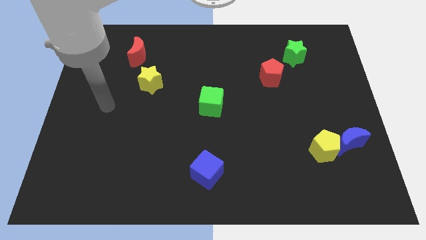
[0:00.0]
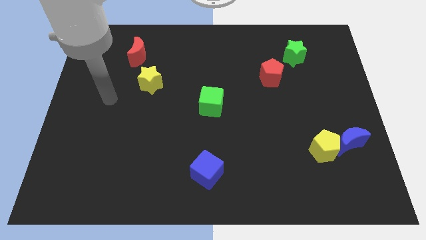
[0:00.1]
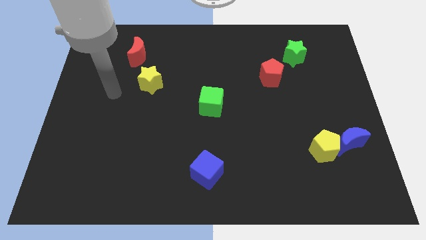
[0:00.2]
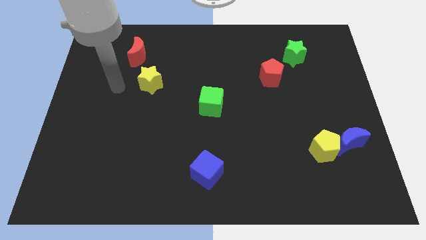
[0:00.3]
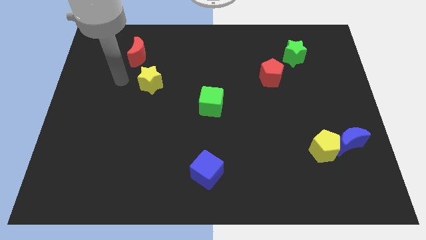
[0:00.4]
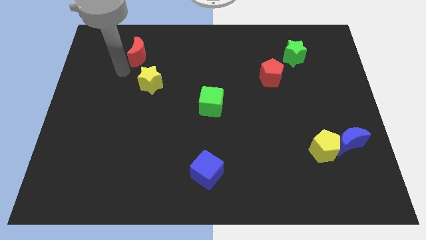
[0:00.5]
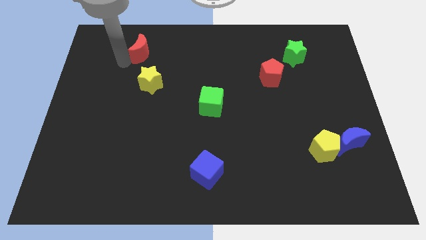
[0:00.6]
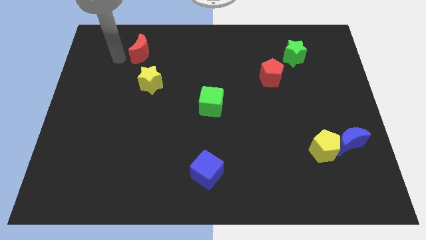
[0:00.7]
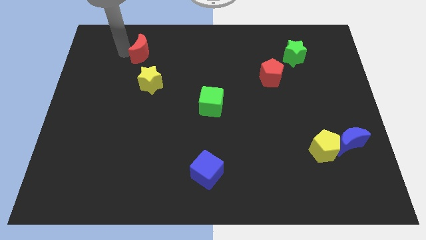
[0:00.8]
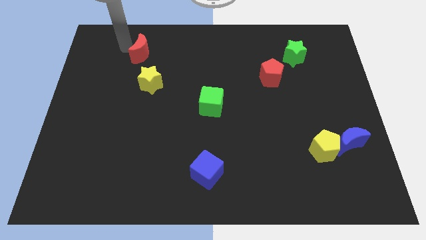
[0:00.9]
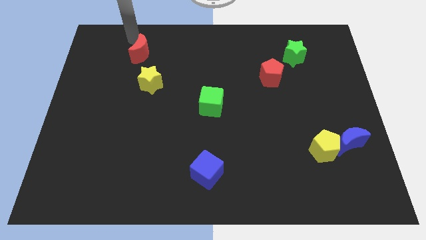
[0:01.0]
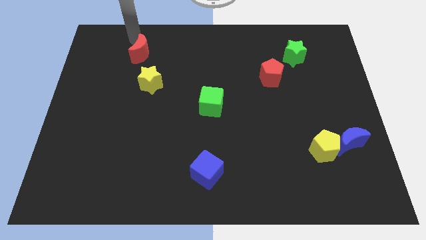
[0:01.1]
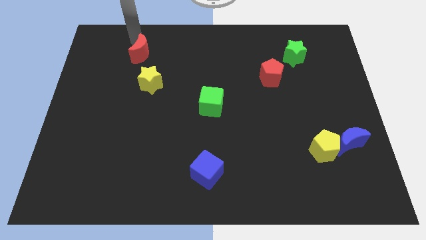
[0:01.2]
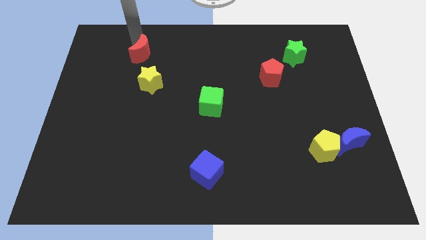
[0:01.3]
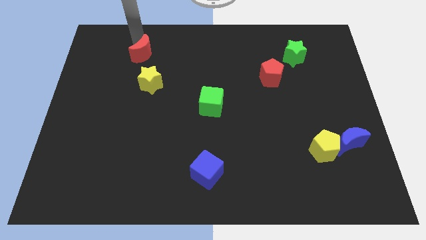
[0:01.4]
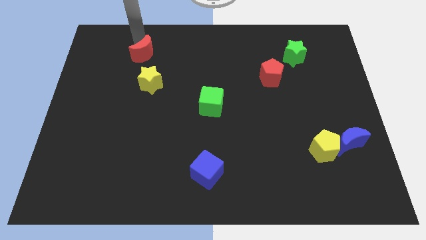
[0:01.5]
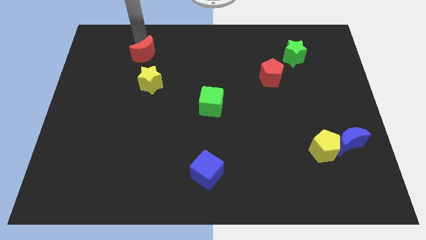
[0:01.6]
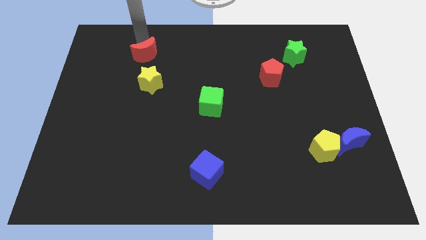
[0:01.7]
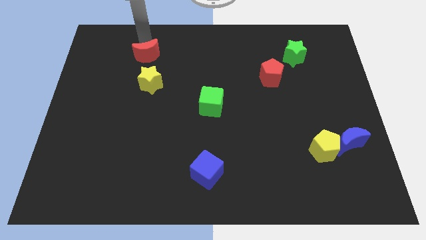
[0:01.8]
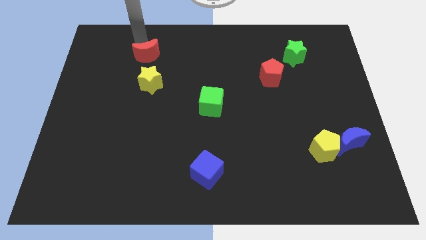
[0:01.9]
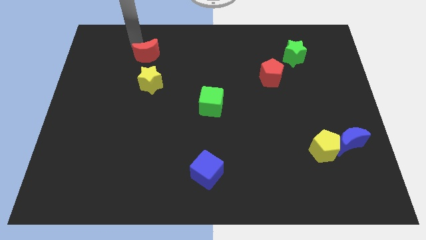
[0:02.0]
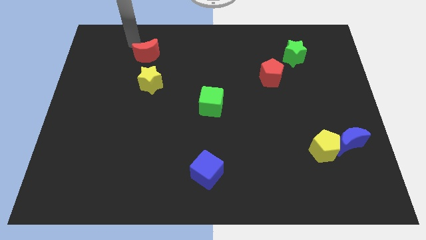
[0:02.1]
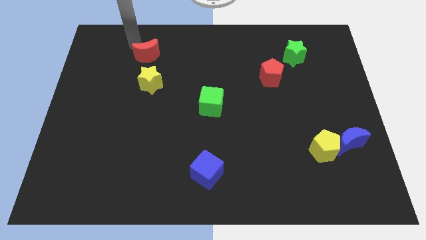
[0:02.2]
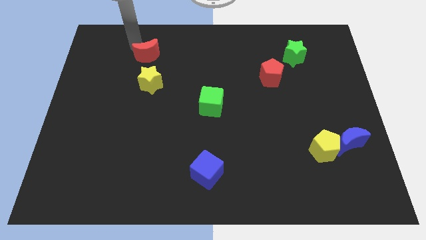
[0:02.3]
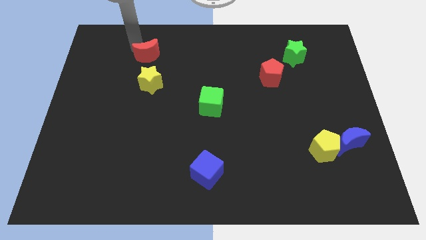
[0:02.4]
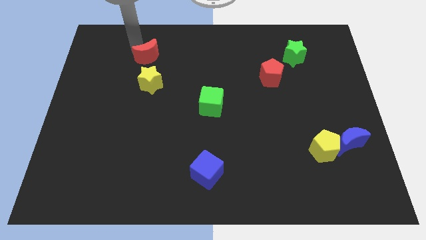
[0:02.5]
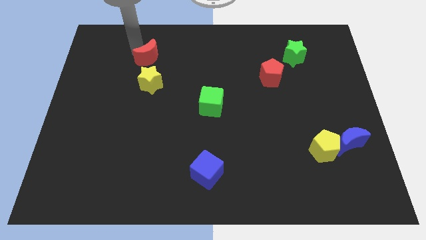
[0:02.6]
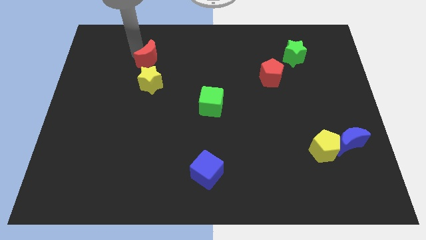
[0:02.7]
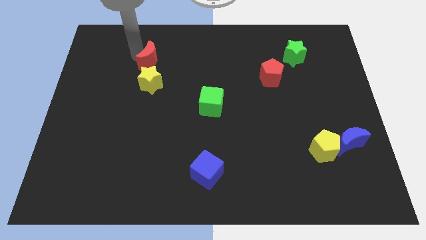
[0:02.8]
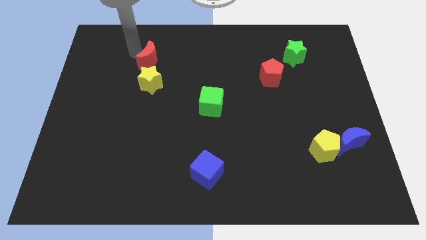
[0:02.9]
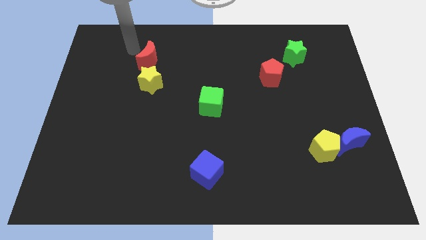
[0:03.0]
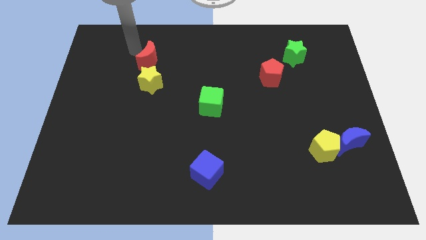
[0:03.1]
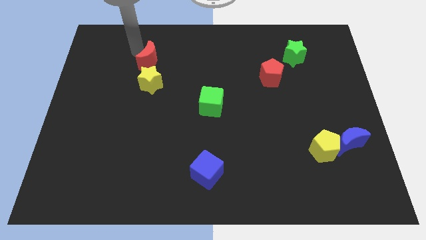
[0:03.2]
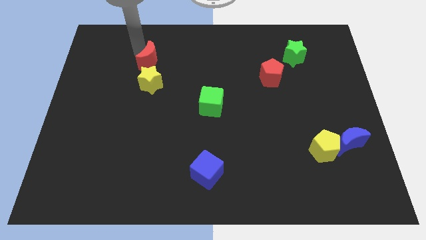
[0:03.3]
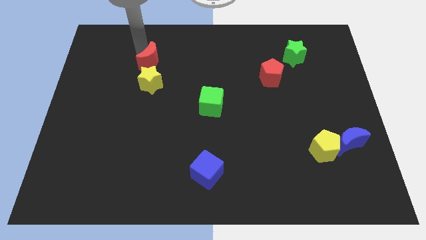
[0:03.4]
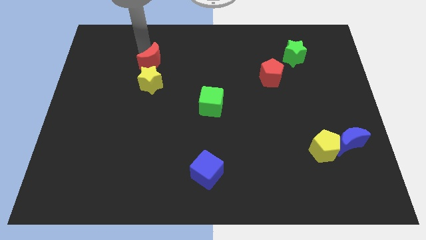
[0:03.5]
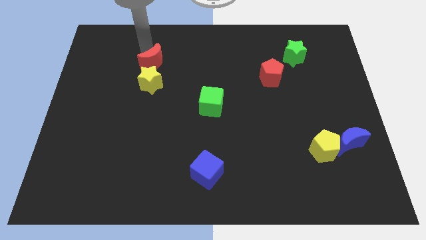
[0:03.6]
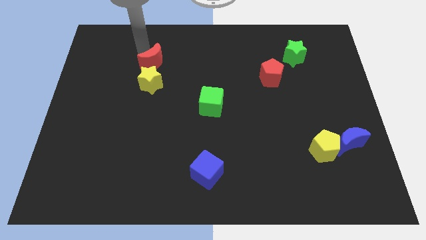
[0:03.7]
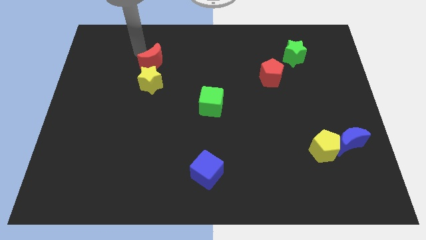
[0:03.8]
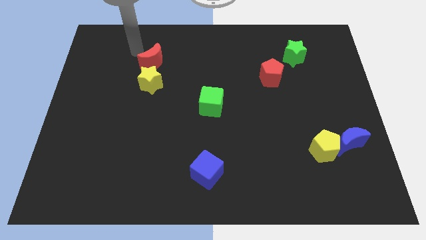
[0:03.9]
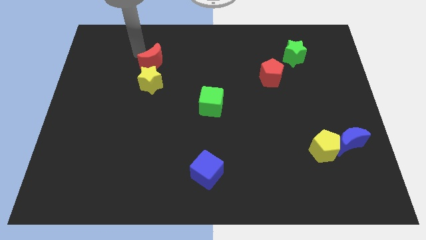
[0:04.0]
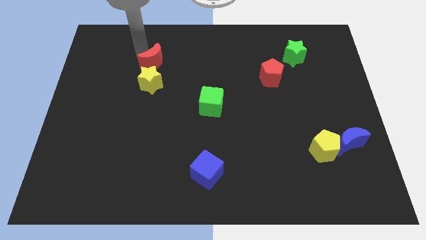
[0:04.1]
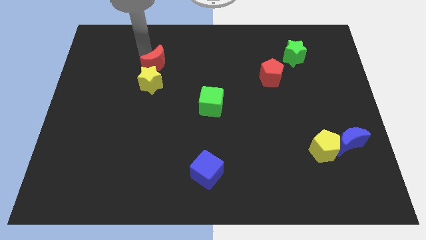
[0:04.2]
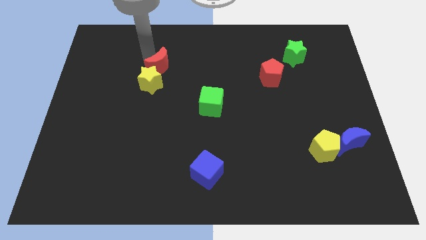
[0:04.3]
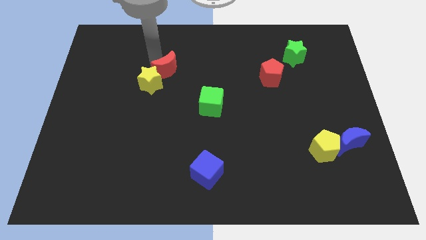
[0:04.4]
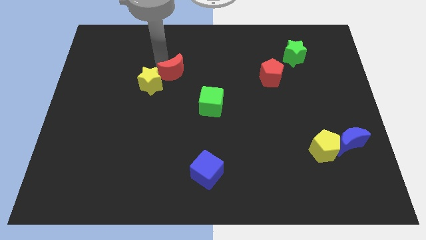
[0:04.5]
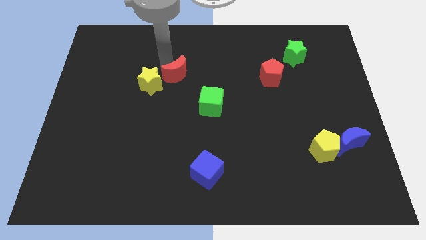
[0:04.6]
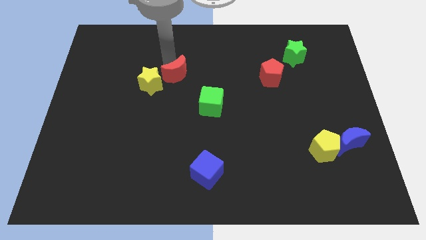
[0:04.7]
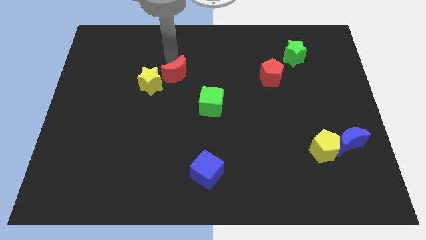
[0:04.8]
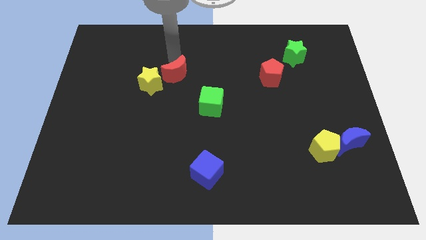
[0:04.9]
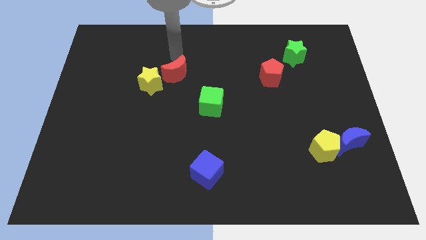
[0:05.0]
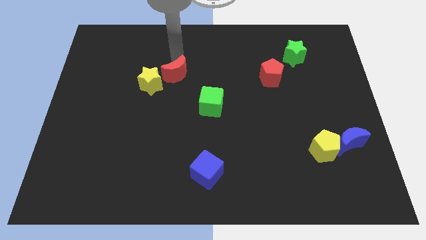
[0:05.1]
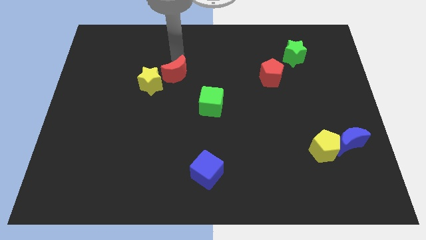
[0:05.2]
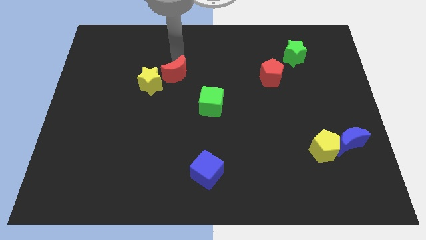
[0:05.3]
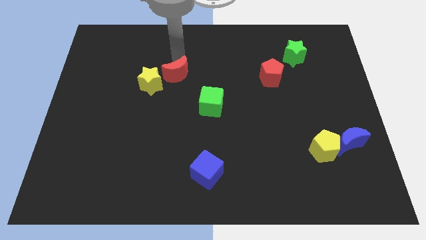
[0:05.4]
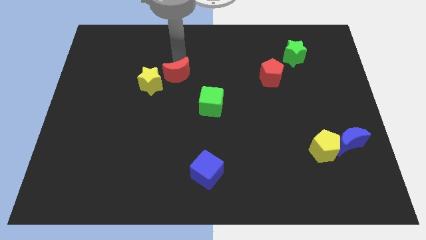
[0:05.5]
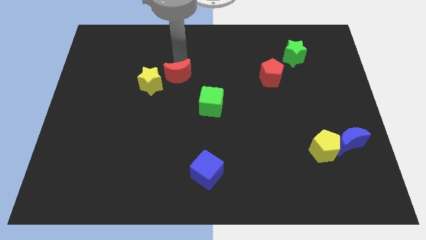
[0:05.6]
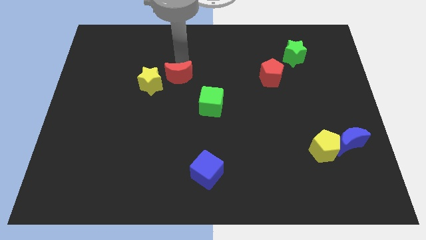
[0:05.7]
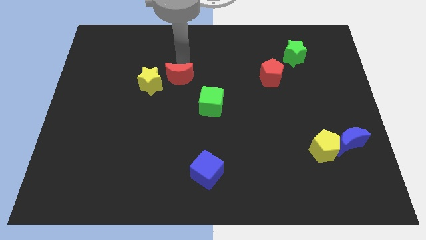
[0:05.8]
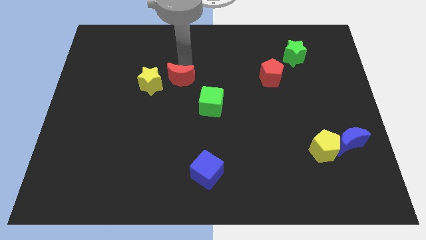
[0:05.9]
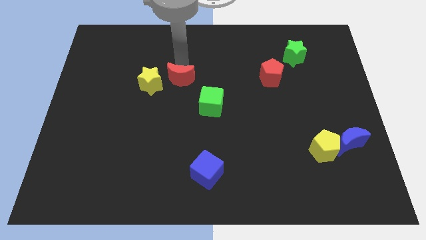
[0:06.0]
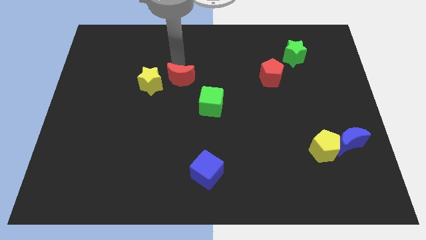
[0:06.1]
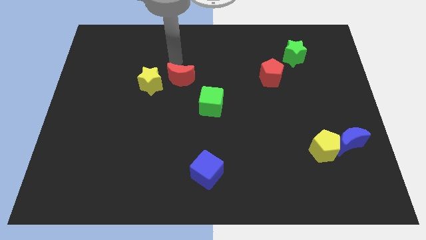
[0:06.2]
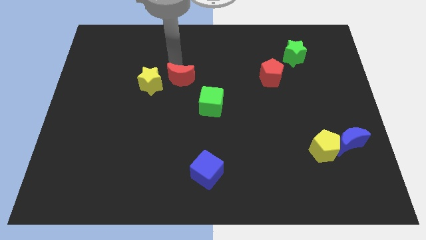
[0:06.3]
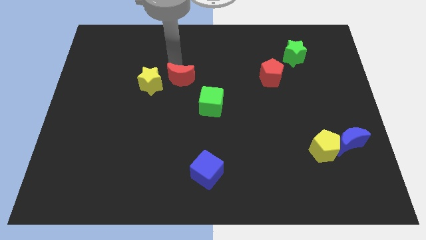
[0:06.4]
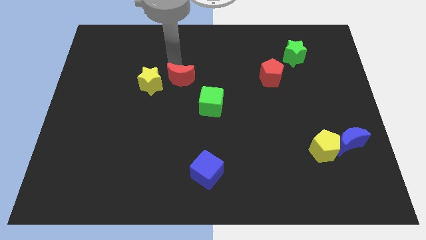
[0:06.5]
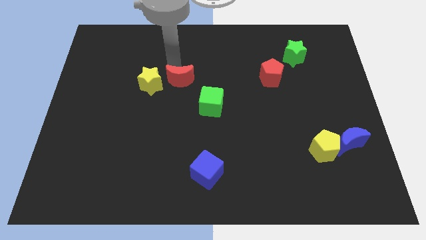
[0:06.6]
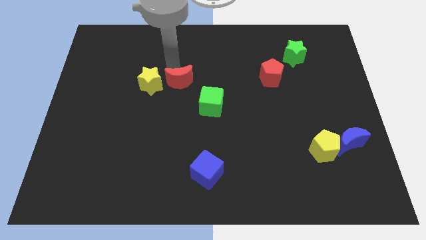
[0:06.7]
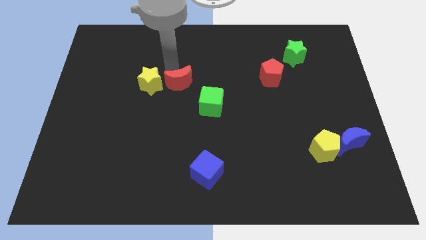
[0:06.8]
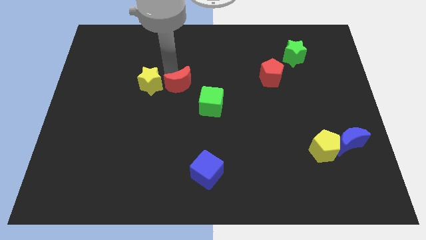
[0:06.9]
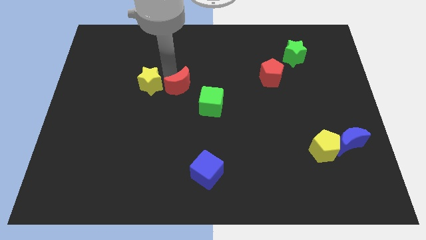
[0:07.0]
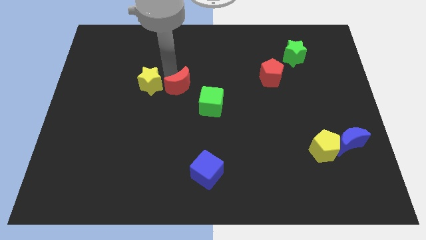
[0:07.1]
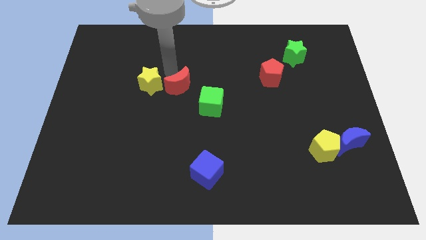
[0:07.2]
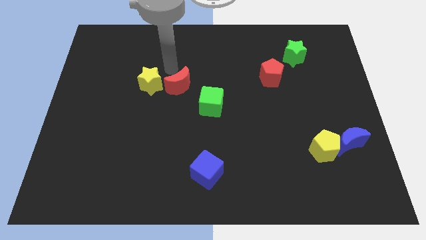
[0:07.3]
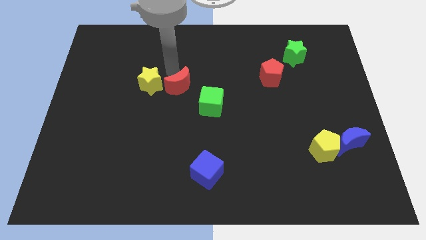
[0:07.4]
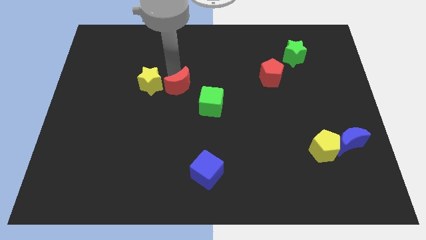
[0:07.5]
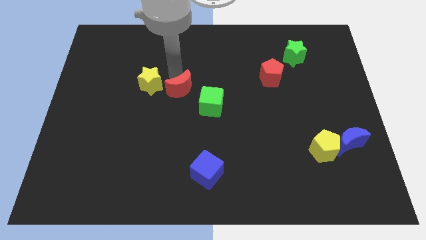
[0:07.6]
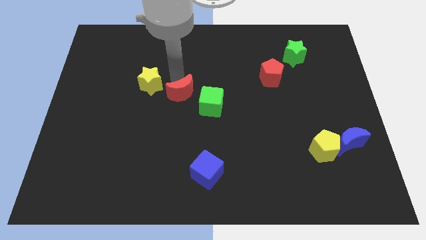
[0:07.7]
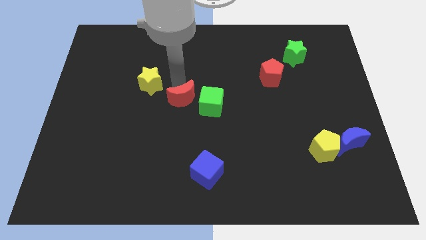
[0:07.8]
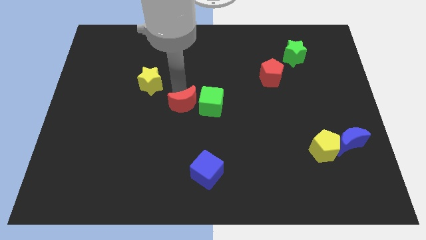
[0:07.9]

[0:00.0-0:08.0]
slide the red moon down and to the right diagonally

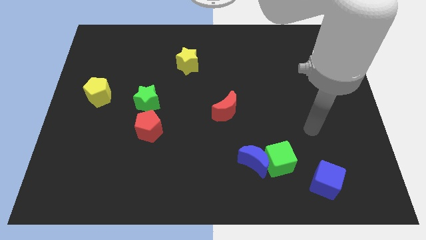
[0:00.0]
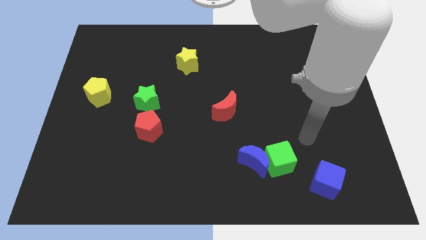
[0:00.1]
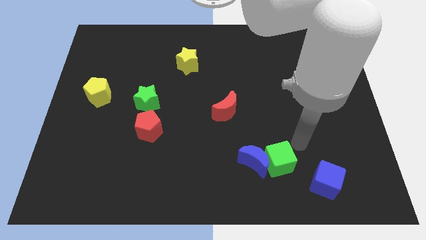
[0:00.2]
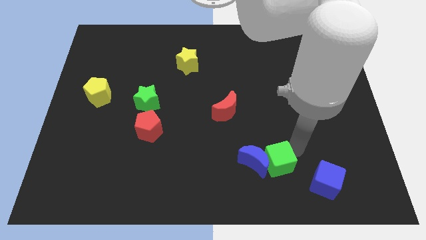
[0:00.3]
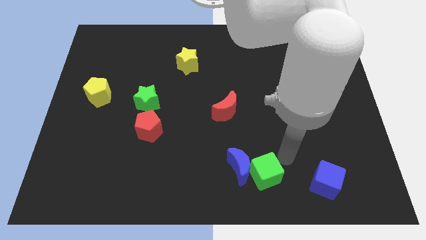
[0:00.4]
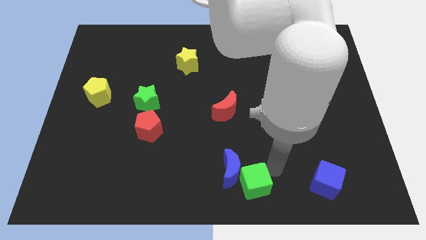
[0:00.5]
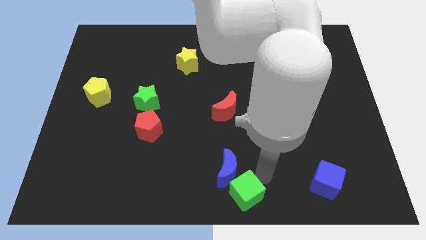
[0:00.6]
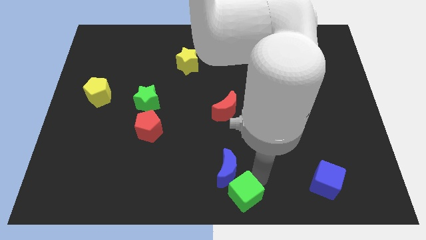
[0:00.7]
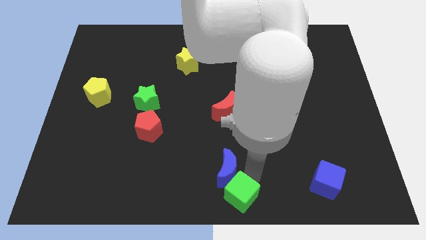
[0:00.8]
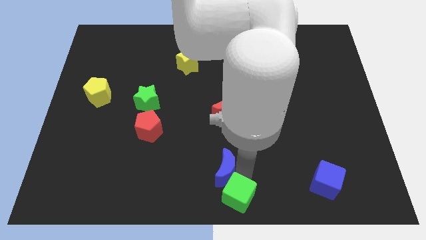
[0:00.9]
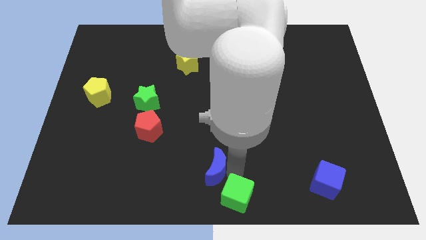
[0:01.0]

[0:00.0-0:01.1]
move the blue moon to the left slightly
